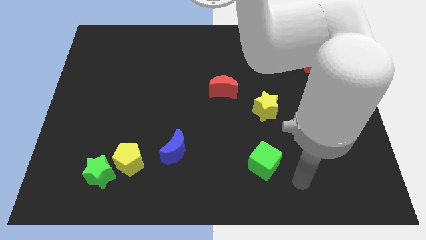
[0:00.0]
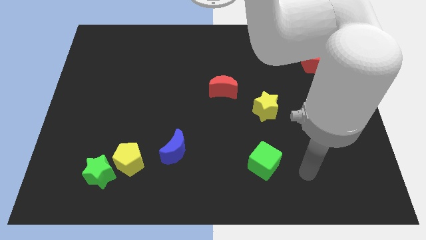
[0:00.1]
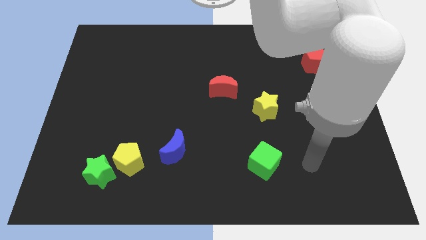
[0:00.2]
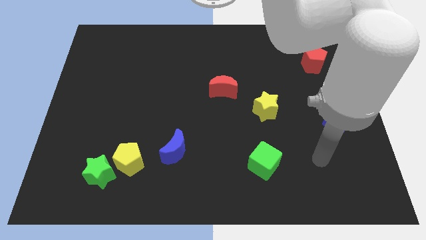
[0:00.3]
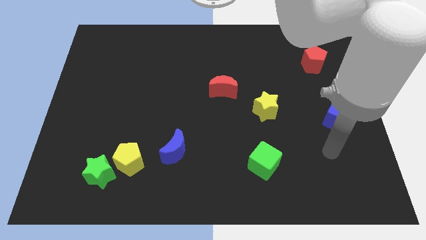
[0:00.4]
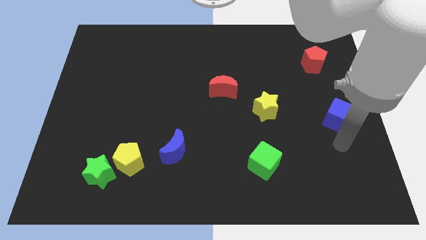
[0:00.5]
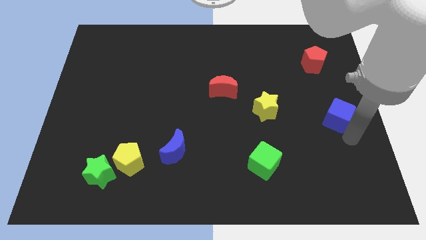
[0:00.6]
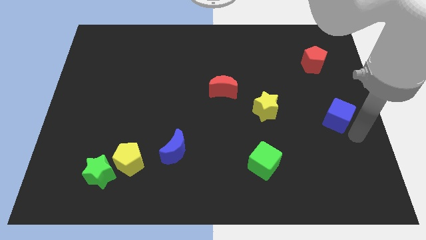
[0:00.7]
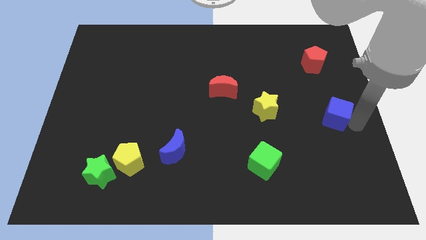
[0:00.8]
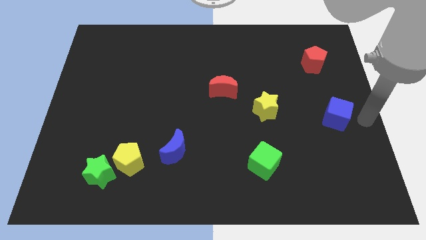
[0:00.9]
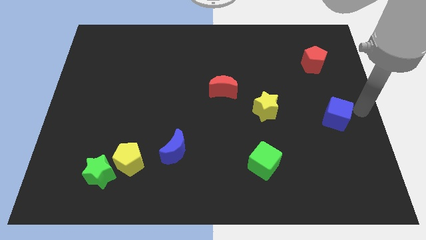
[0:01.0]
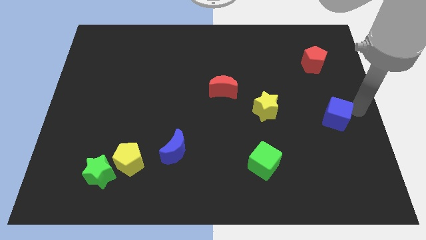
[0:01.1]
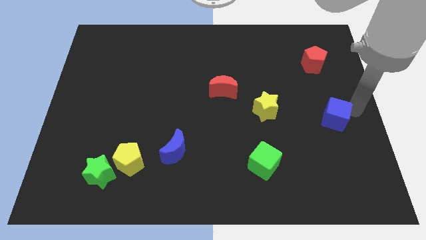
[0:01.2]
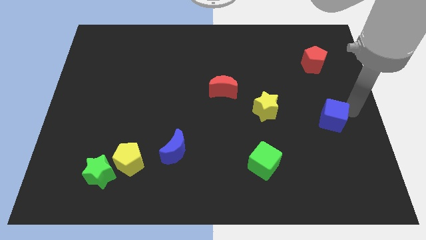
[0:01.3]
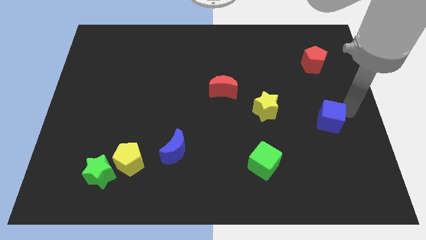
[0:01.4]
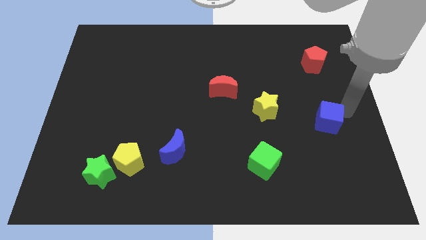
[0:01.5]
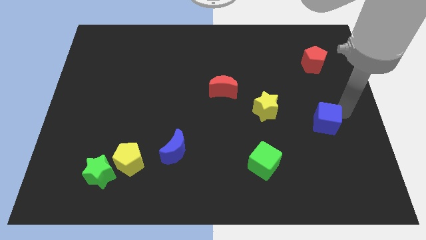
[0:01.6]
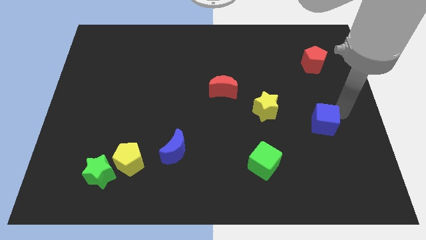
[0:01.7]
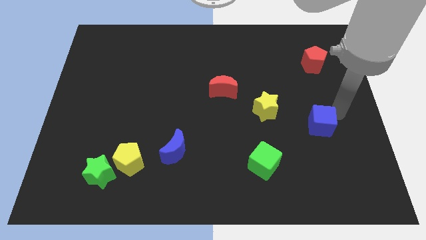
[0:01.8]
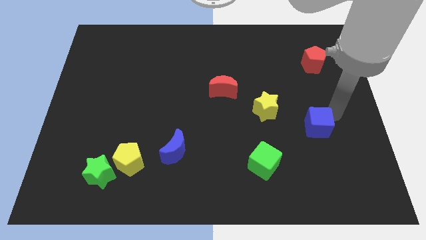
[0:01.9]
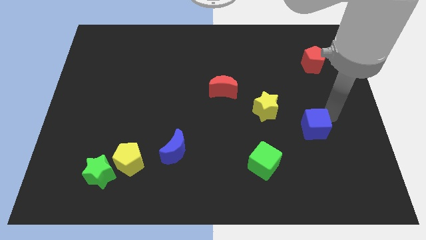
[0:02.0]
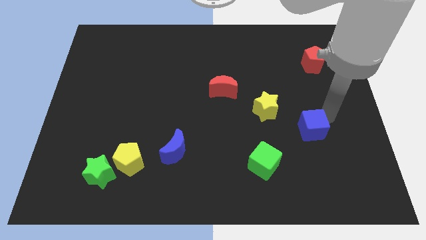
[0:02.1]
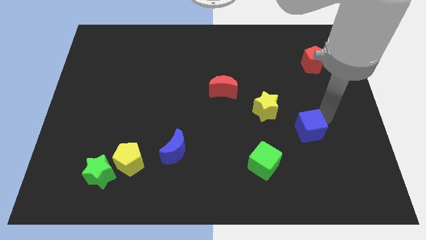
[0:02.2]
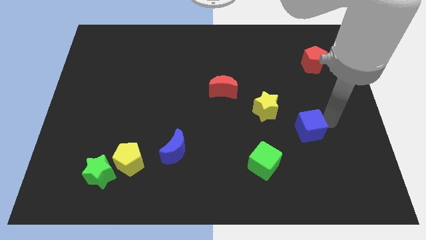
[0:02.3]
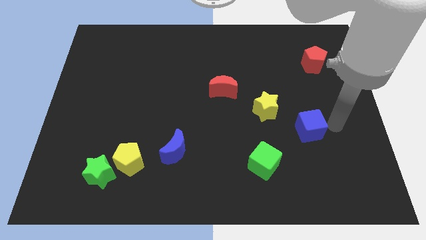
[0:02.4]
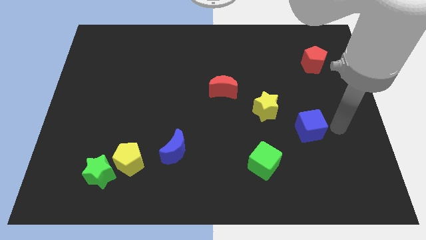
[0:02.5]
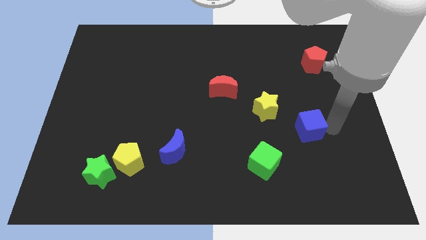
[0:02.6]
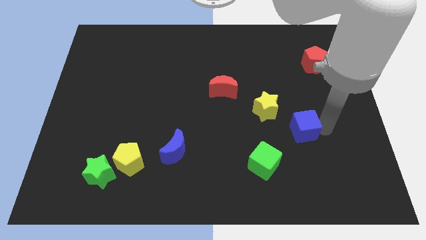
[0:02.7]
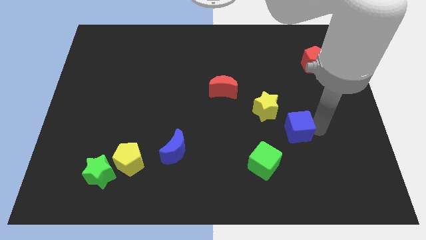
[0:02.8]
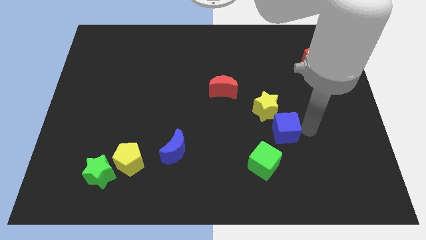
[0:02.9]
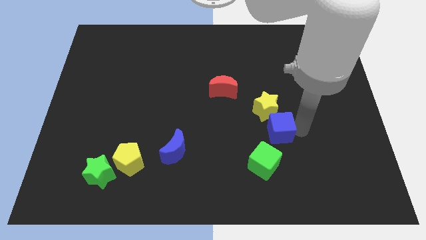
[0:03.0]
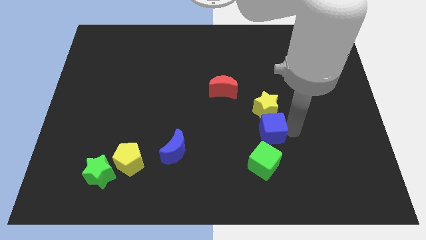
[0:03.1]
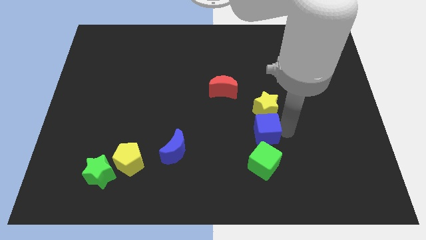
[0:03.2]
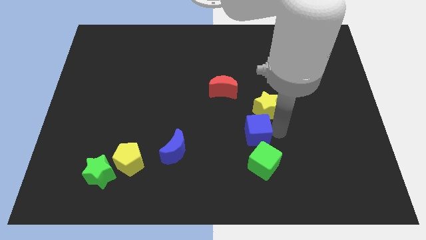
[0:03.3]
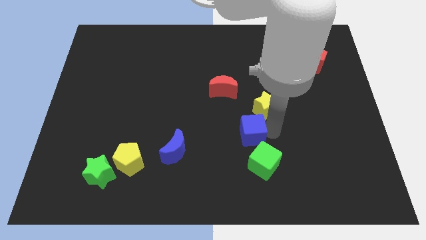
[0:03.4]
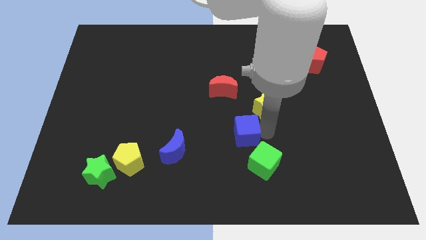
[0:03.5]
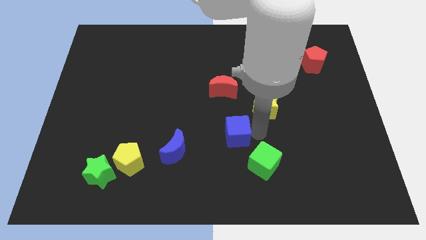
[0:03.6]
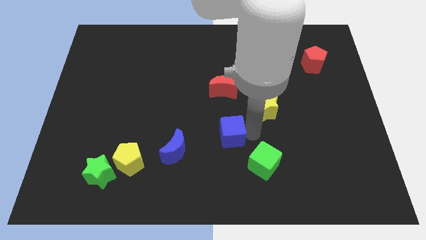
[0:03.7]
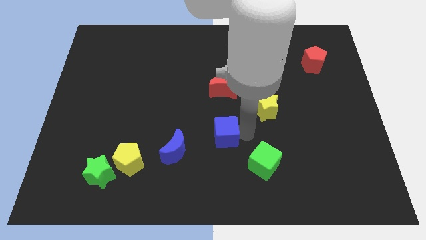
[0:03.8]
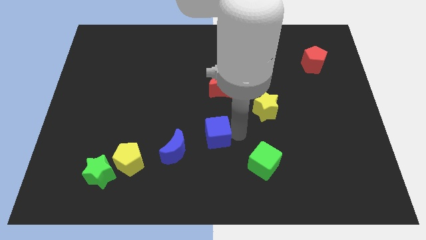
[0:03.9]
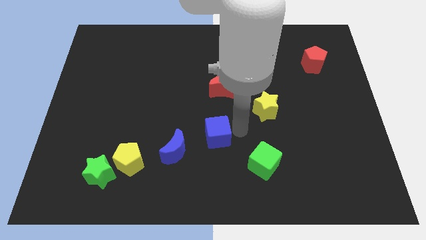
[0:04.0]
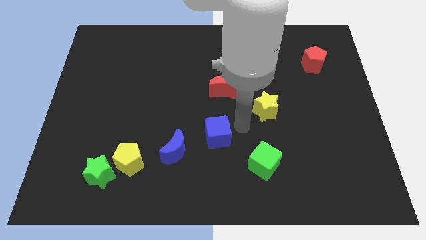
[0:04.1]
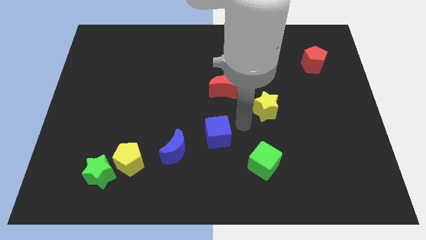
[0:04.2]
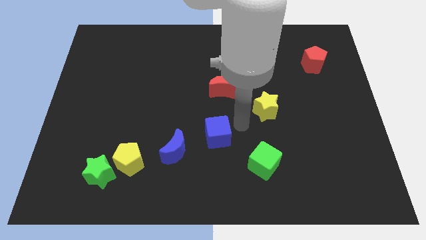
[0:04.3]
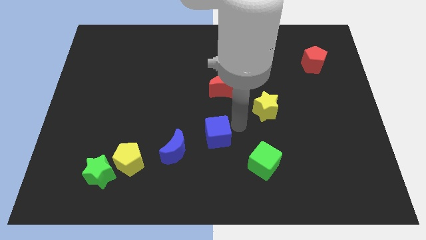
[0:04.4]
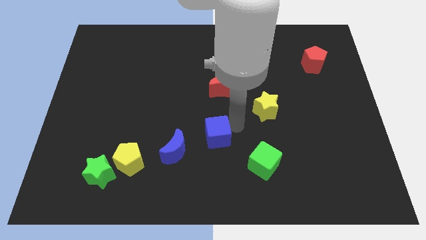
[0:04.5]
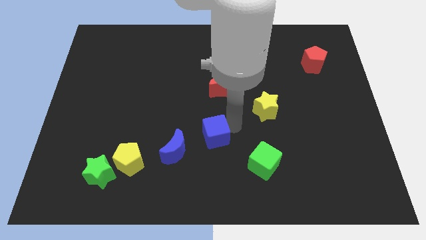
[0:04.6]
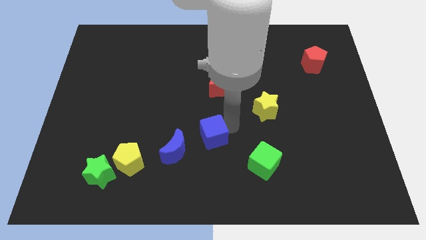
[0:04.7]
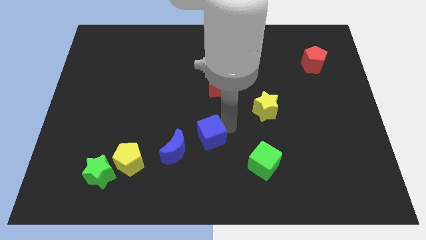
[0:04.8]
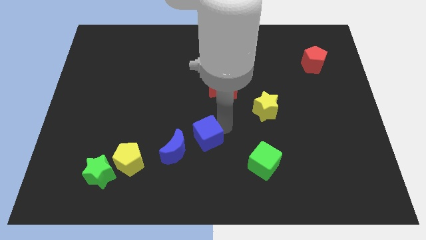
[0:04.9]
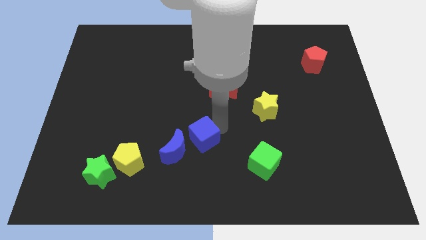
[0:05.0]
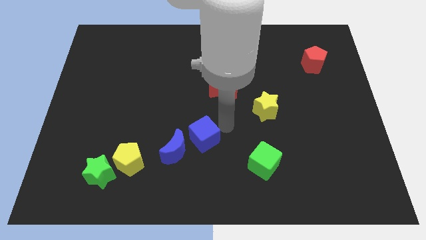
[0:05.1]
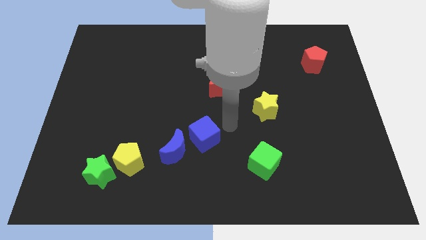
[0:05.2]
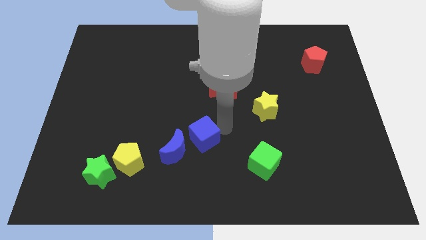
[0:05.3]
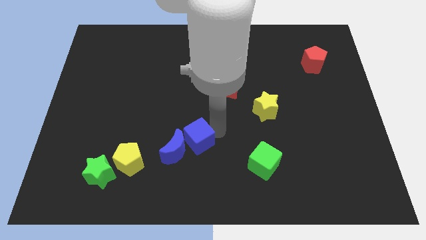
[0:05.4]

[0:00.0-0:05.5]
slide the blue cube towards the blue moon

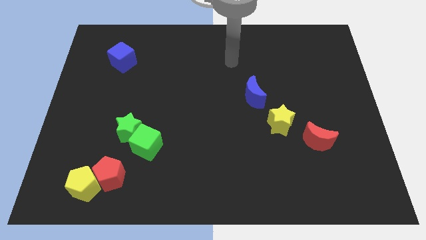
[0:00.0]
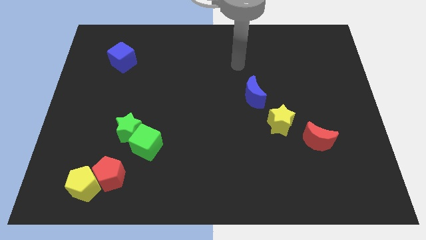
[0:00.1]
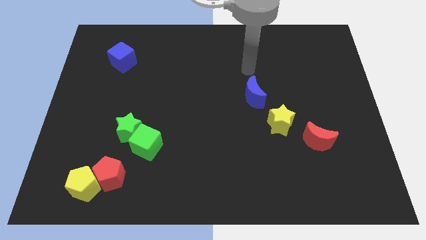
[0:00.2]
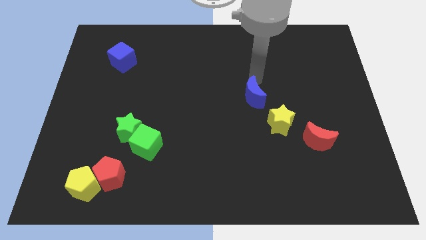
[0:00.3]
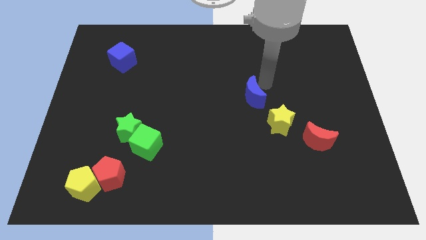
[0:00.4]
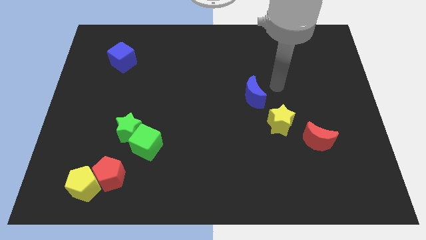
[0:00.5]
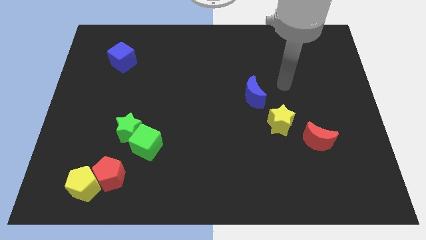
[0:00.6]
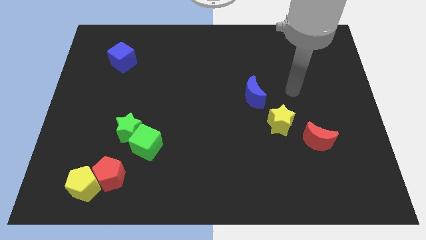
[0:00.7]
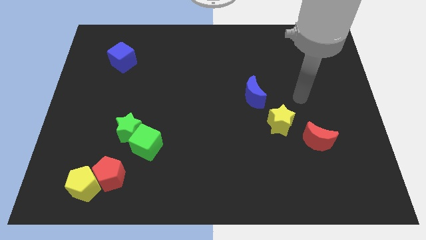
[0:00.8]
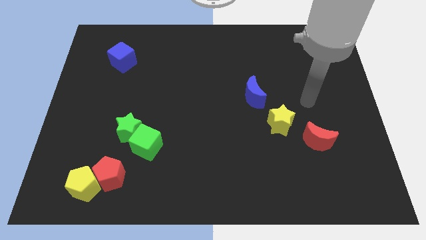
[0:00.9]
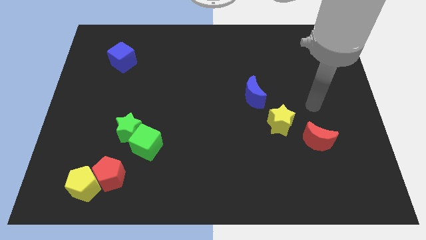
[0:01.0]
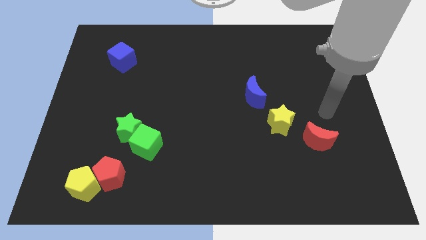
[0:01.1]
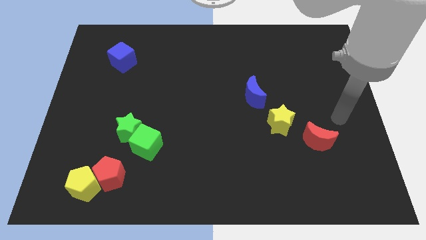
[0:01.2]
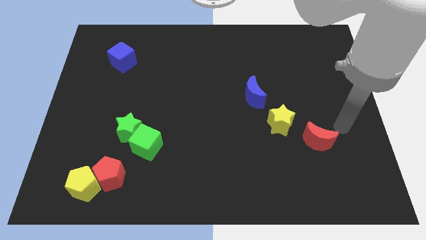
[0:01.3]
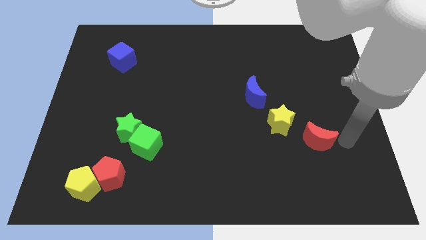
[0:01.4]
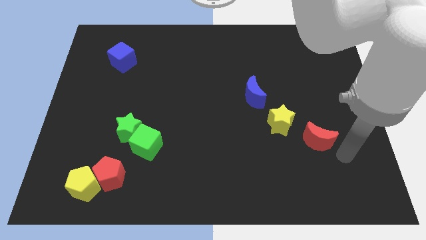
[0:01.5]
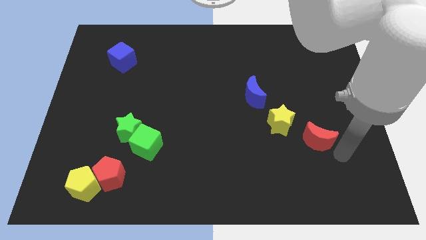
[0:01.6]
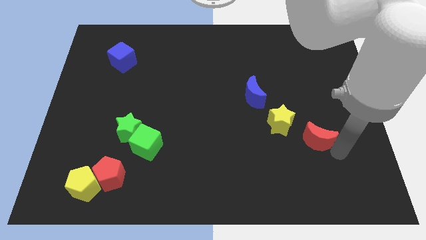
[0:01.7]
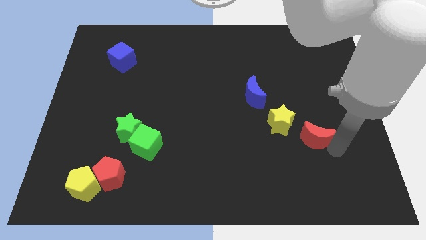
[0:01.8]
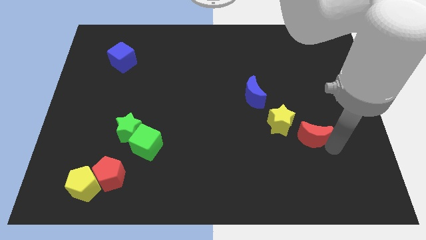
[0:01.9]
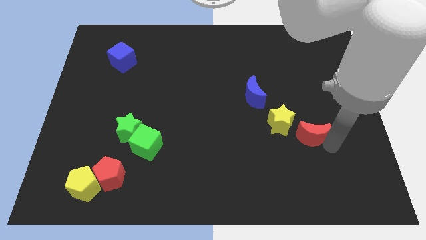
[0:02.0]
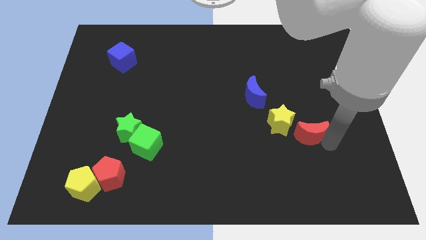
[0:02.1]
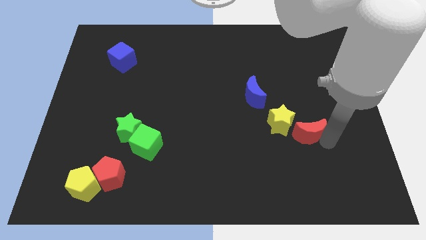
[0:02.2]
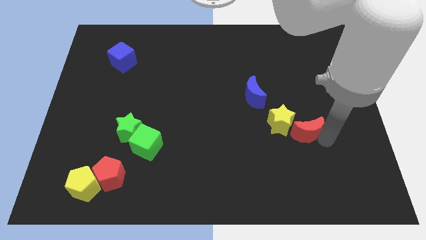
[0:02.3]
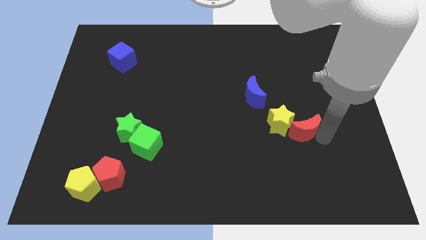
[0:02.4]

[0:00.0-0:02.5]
move the red moon next to the yellow star
